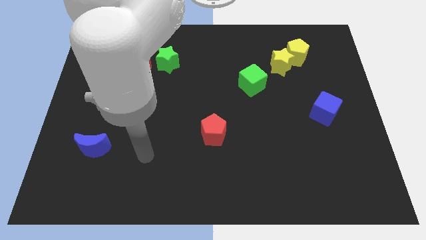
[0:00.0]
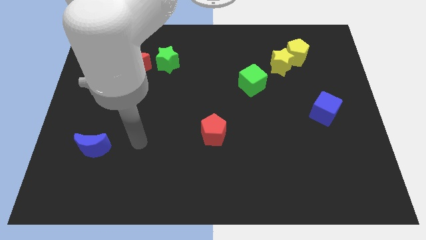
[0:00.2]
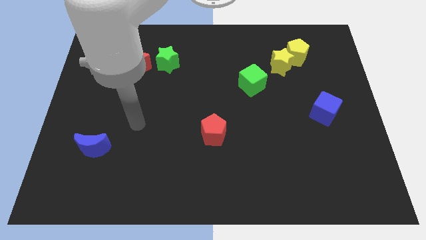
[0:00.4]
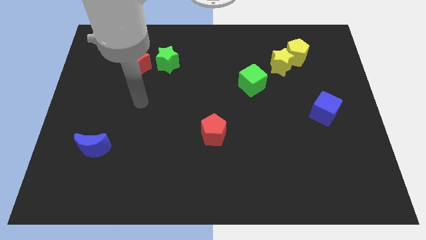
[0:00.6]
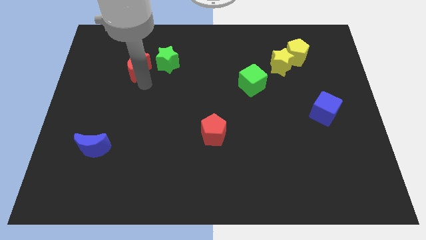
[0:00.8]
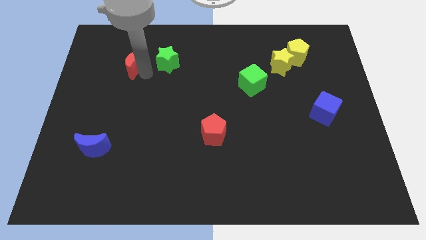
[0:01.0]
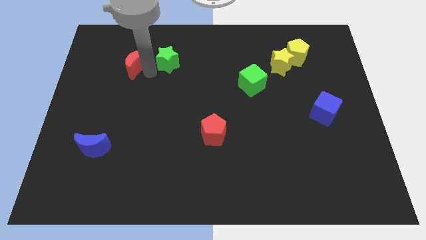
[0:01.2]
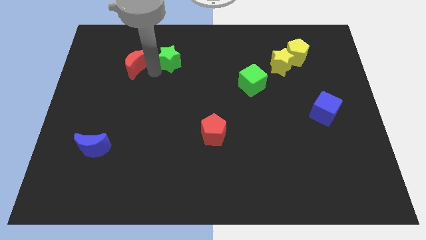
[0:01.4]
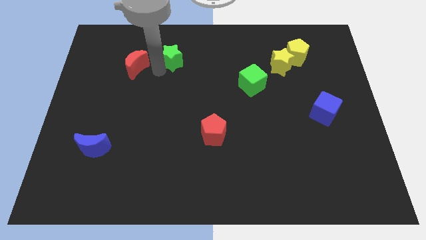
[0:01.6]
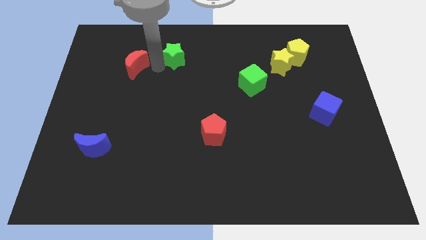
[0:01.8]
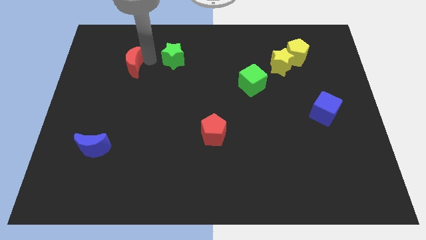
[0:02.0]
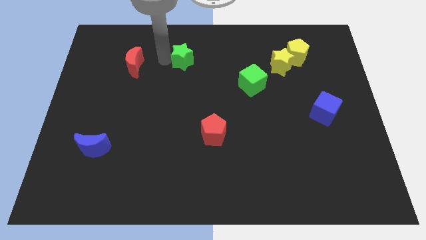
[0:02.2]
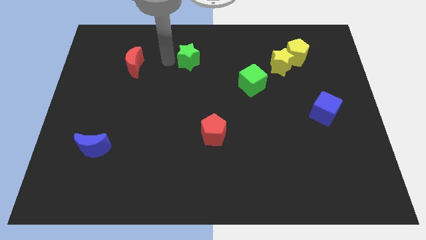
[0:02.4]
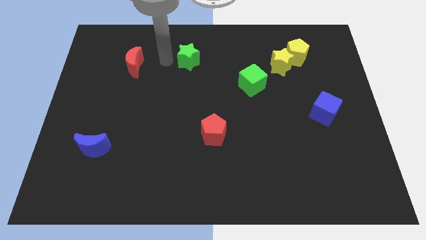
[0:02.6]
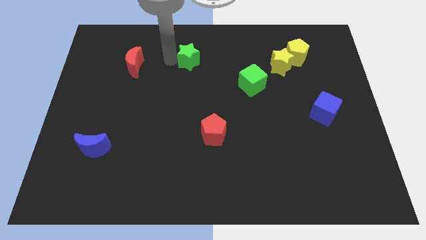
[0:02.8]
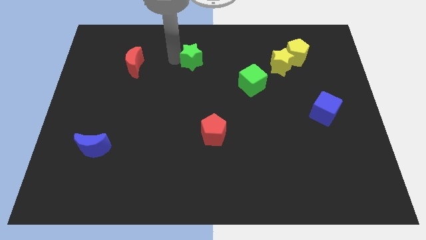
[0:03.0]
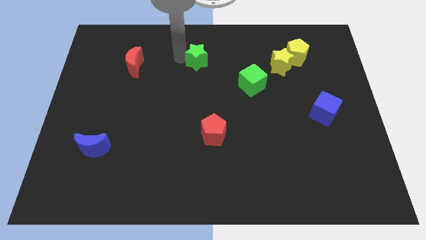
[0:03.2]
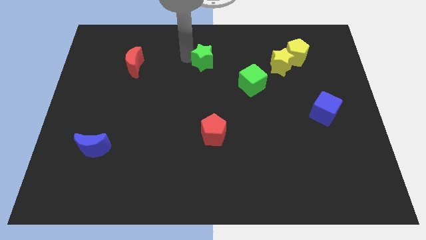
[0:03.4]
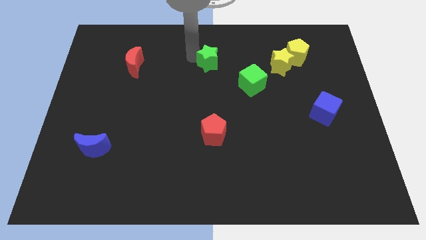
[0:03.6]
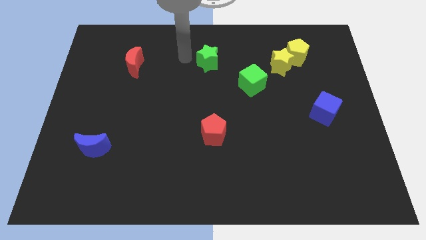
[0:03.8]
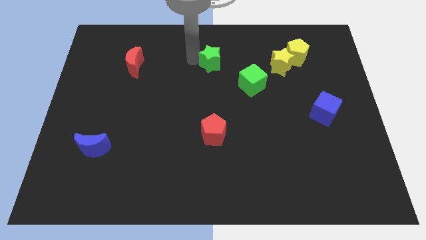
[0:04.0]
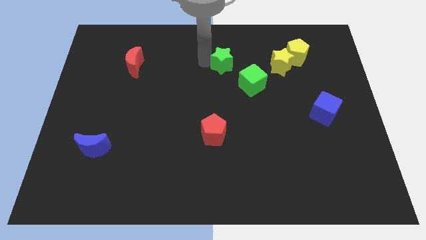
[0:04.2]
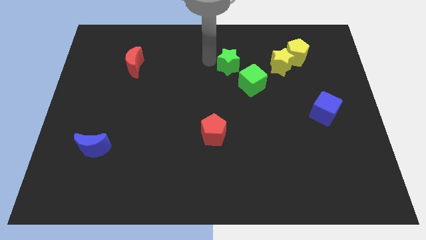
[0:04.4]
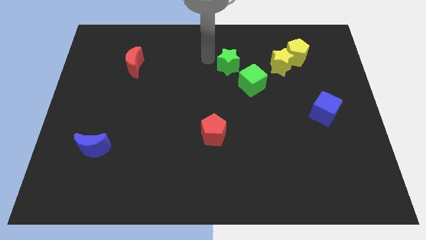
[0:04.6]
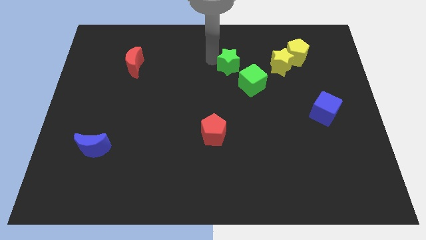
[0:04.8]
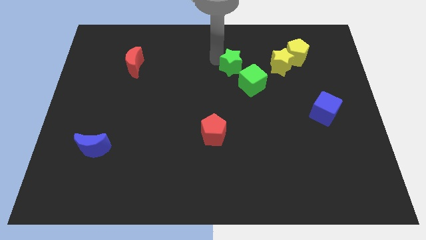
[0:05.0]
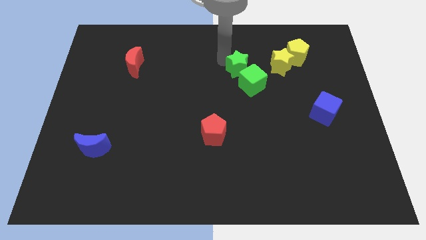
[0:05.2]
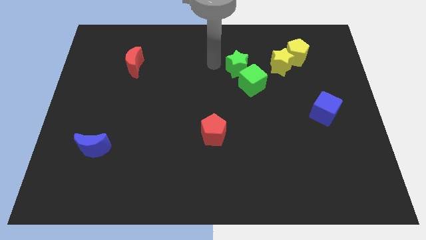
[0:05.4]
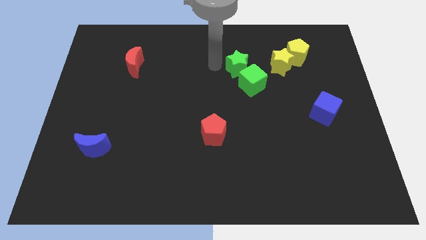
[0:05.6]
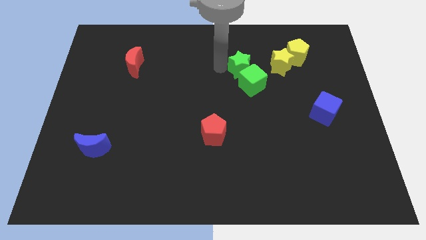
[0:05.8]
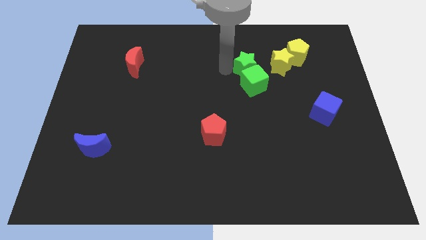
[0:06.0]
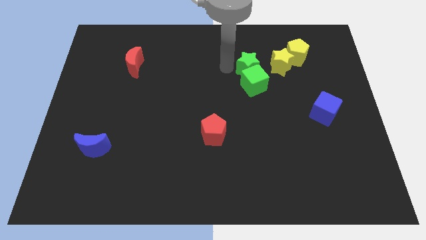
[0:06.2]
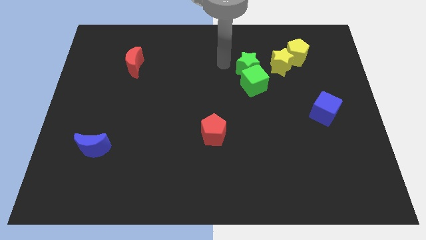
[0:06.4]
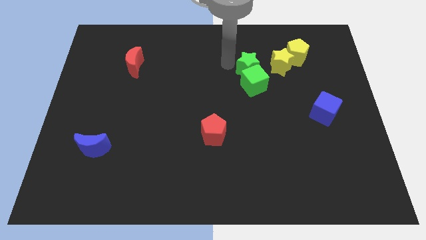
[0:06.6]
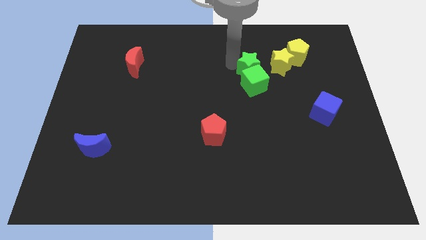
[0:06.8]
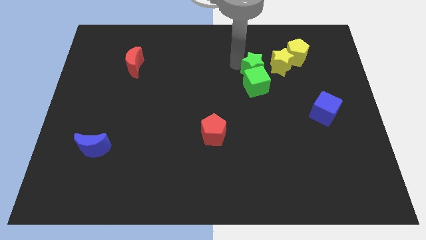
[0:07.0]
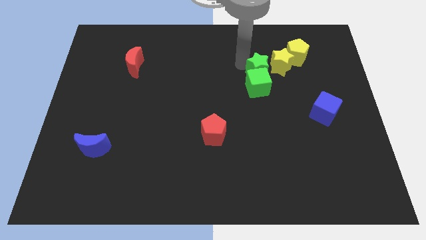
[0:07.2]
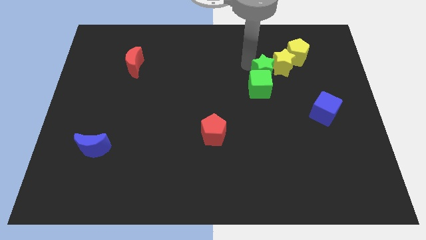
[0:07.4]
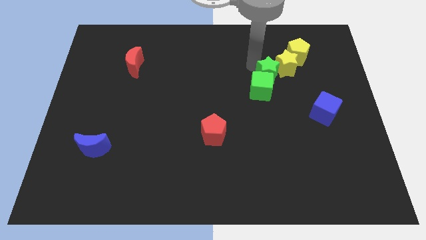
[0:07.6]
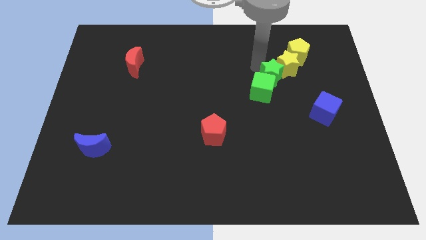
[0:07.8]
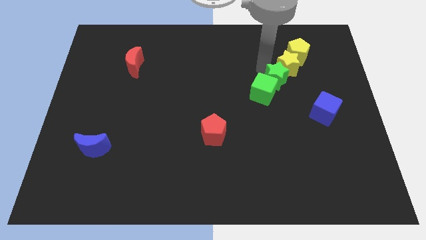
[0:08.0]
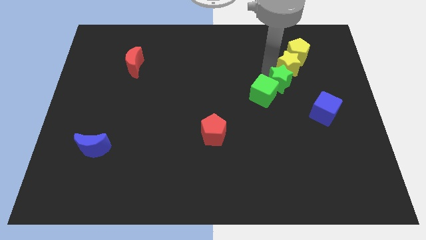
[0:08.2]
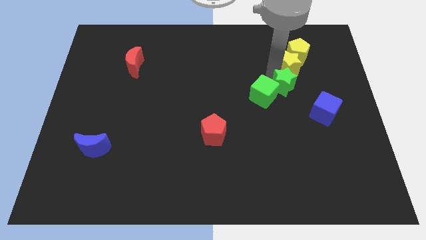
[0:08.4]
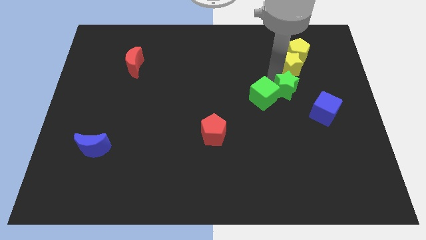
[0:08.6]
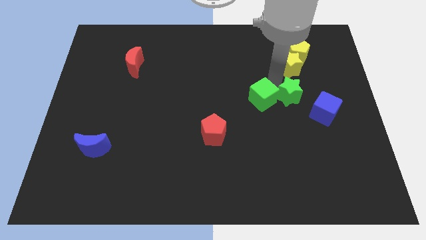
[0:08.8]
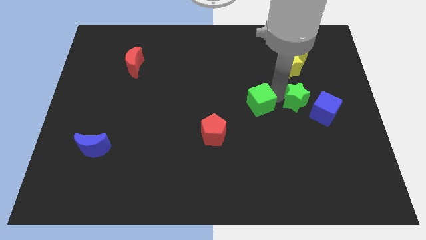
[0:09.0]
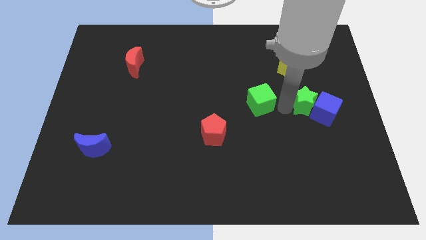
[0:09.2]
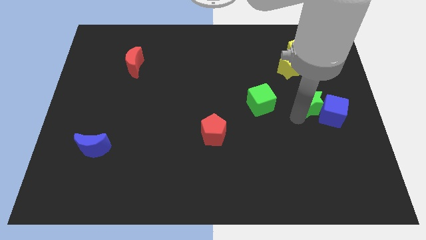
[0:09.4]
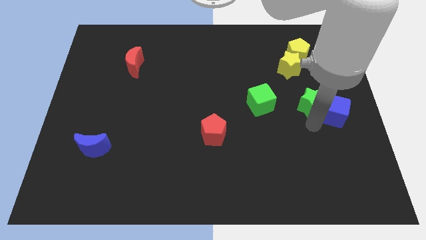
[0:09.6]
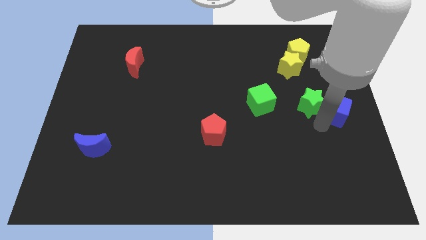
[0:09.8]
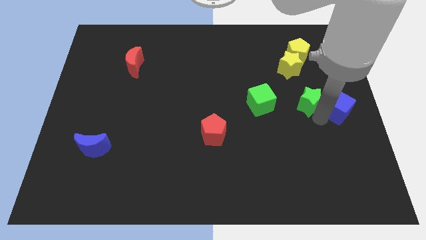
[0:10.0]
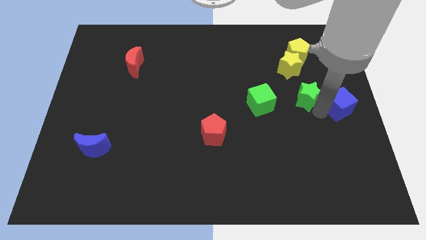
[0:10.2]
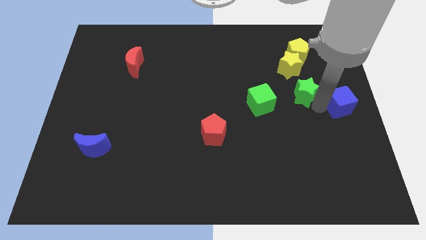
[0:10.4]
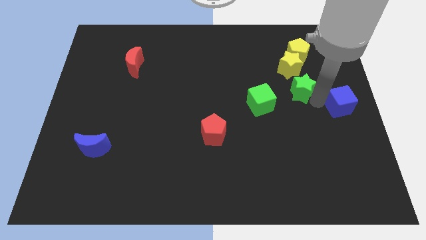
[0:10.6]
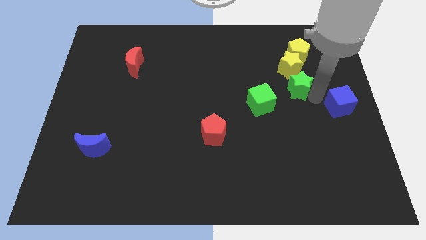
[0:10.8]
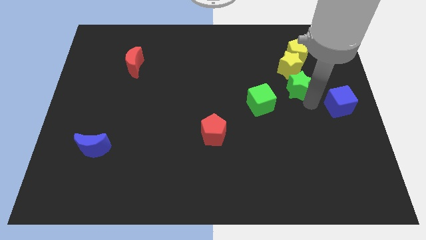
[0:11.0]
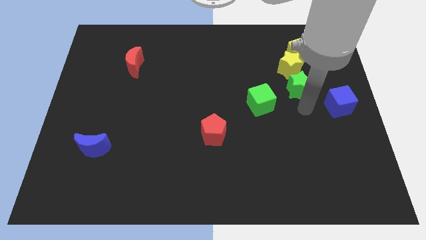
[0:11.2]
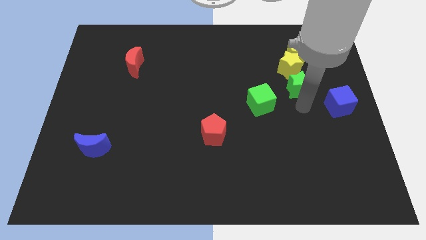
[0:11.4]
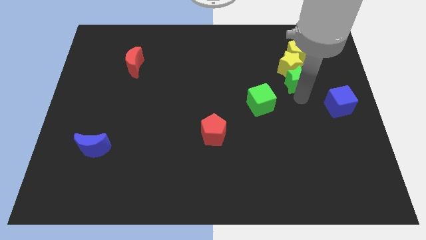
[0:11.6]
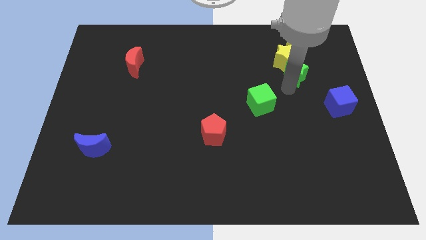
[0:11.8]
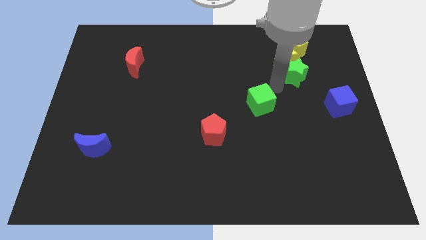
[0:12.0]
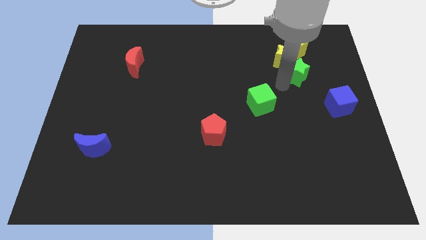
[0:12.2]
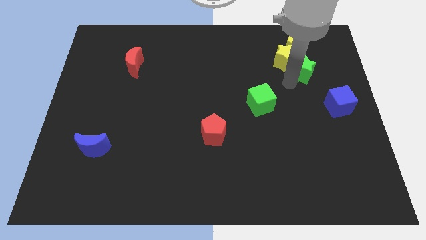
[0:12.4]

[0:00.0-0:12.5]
push the green star to the right of the yellow star
